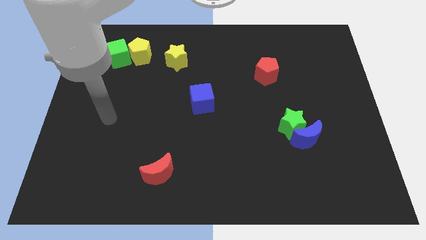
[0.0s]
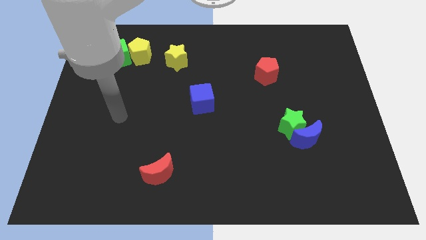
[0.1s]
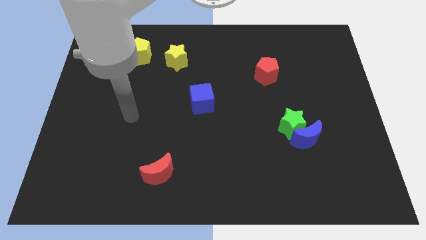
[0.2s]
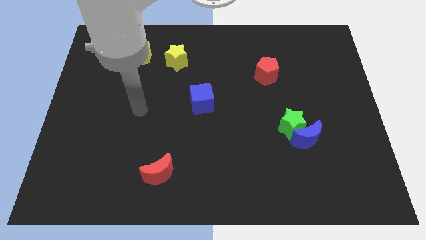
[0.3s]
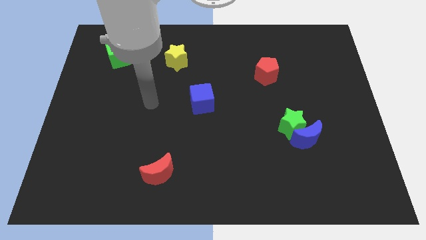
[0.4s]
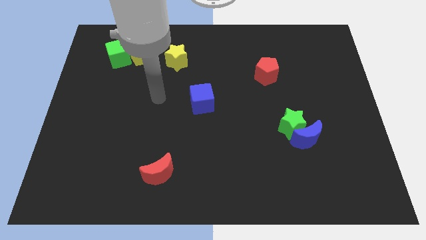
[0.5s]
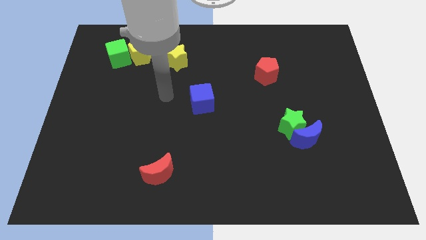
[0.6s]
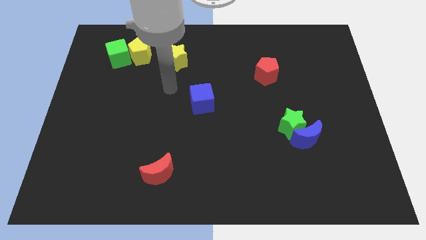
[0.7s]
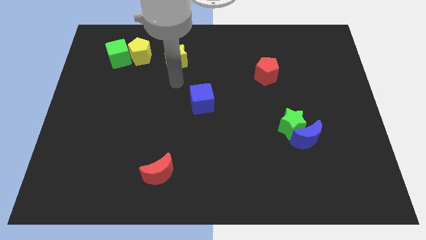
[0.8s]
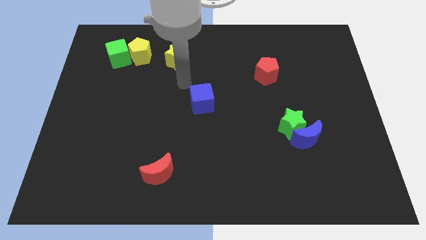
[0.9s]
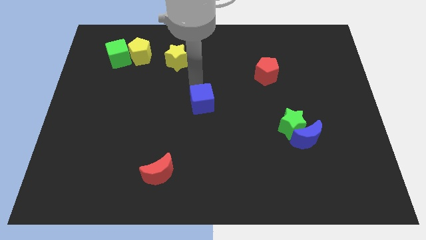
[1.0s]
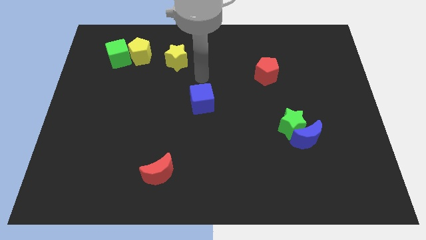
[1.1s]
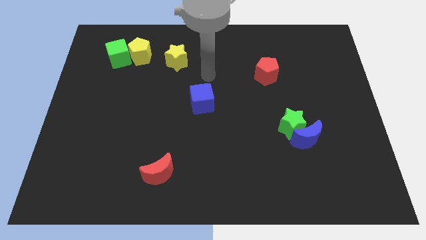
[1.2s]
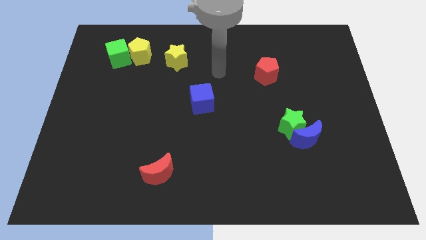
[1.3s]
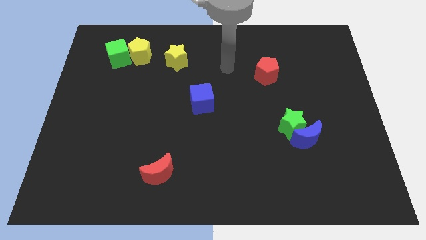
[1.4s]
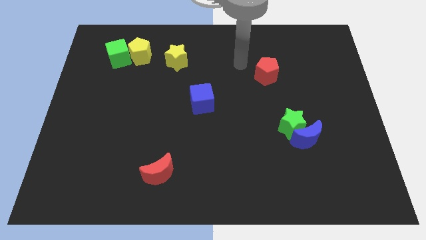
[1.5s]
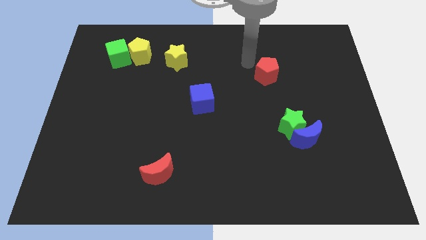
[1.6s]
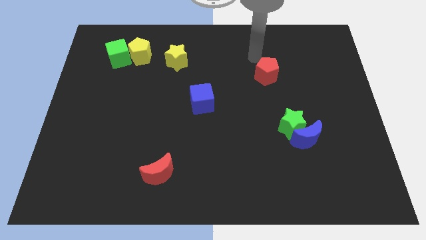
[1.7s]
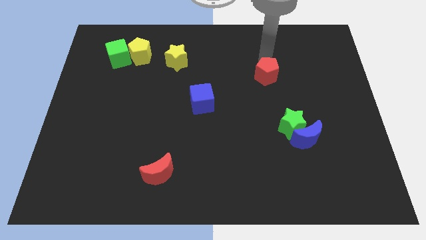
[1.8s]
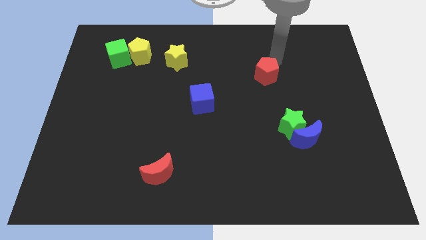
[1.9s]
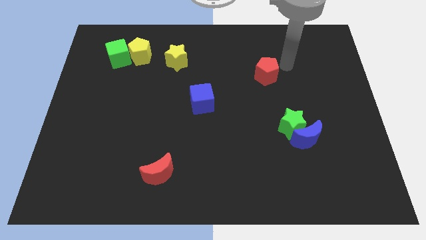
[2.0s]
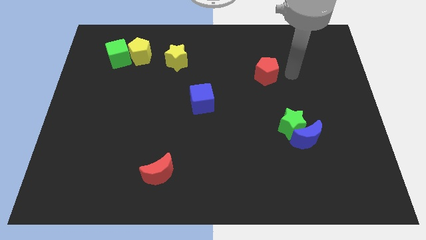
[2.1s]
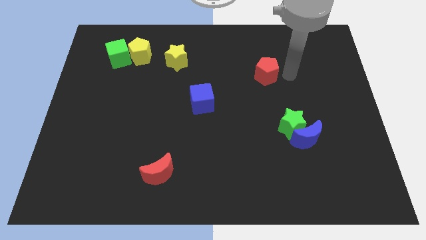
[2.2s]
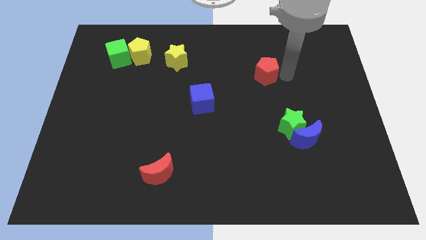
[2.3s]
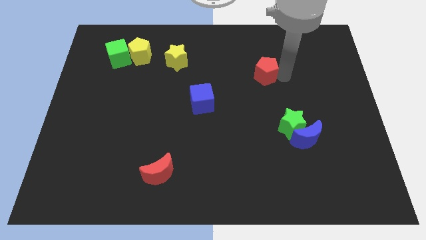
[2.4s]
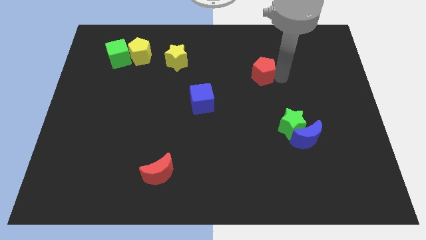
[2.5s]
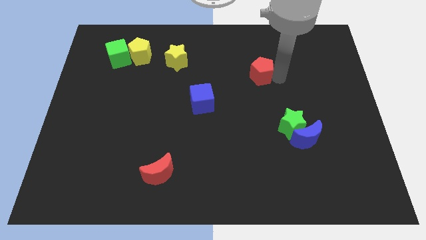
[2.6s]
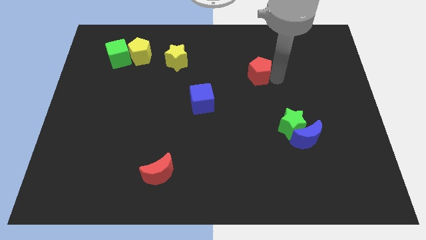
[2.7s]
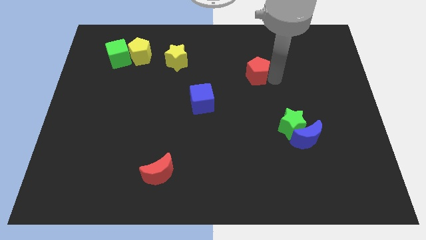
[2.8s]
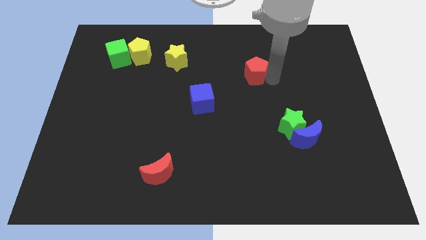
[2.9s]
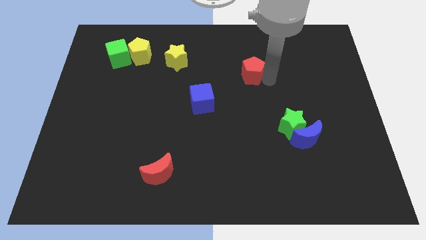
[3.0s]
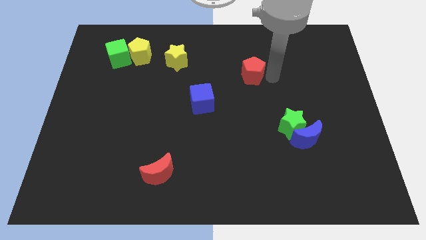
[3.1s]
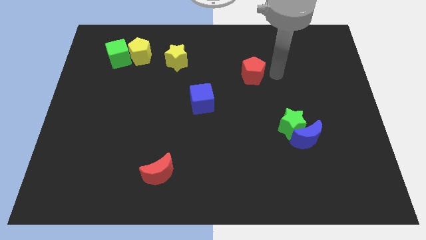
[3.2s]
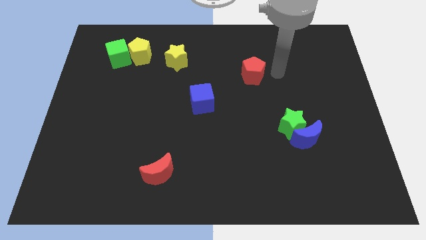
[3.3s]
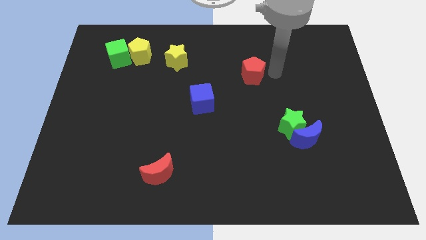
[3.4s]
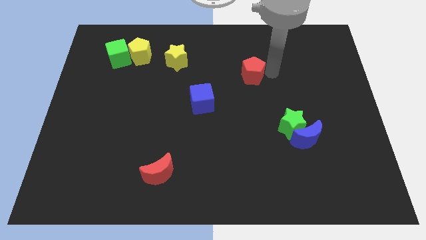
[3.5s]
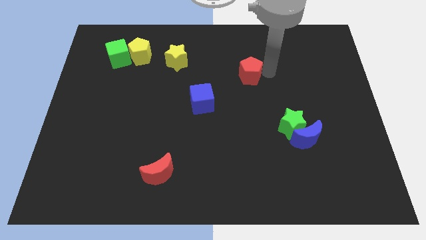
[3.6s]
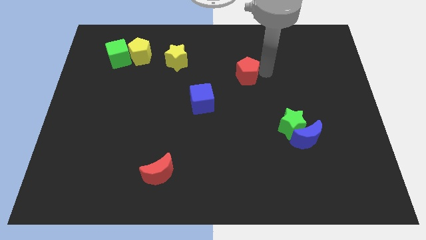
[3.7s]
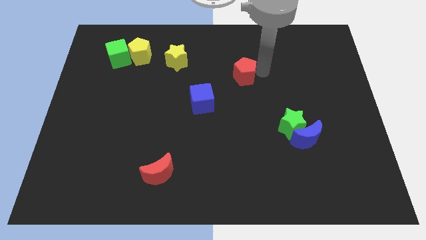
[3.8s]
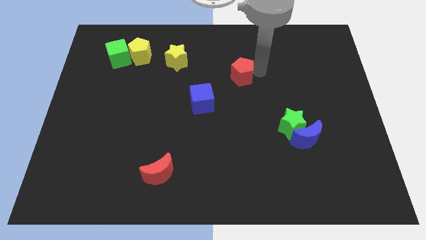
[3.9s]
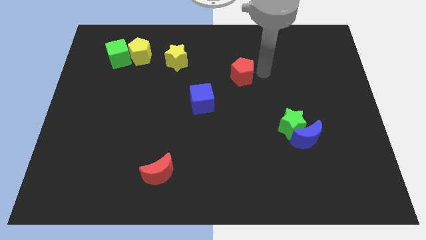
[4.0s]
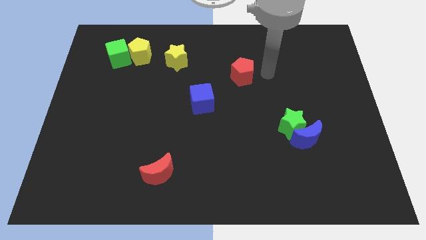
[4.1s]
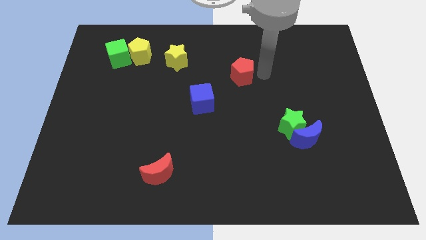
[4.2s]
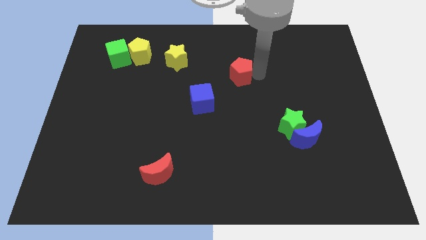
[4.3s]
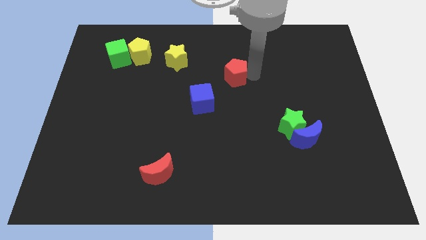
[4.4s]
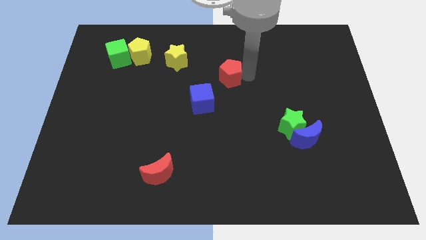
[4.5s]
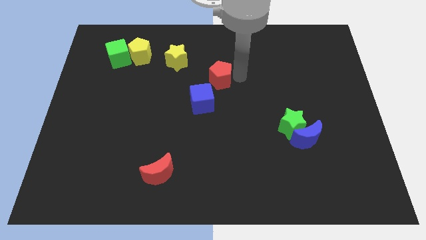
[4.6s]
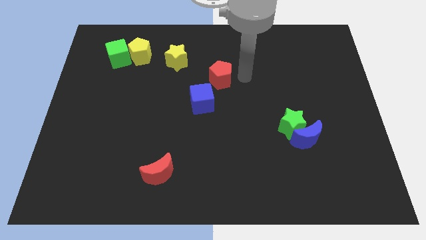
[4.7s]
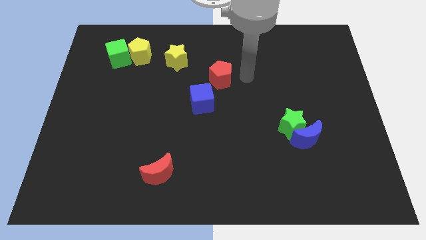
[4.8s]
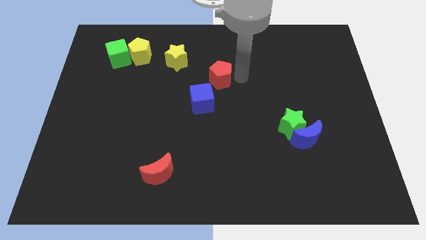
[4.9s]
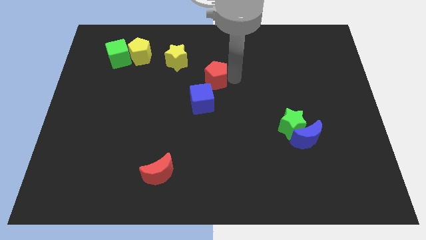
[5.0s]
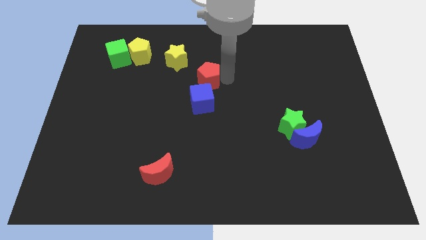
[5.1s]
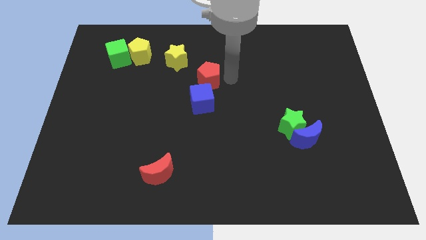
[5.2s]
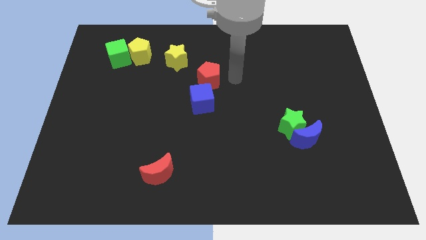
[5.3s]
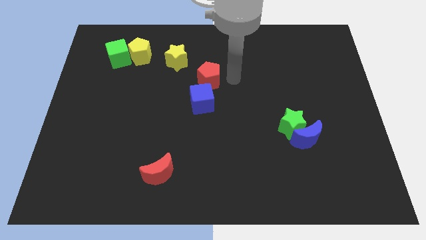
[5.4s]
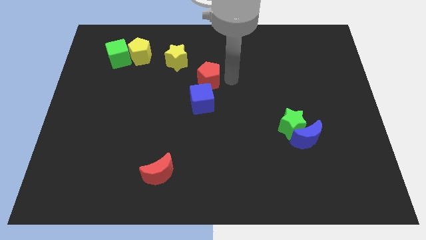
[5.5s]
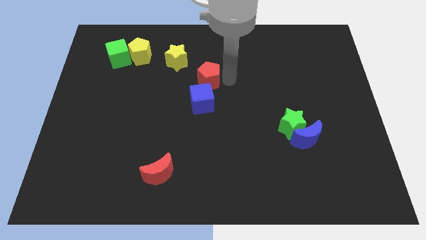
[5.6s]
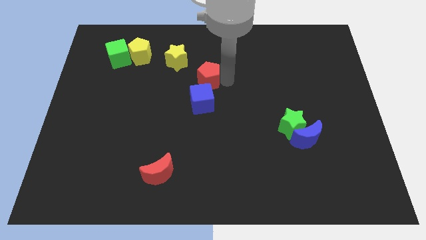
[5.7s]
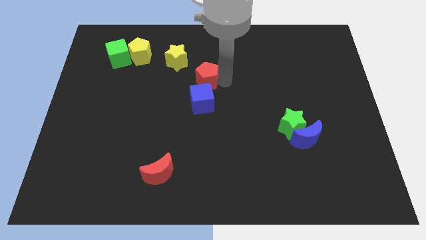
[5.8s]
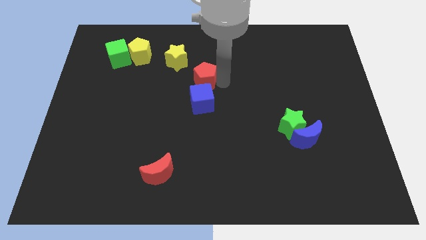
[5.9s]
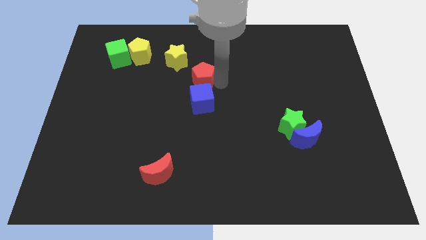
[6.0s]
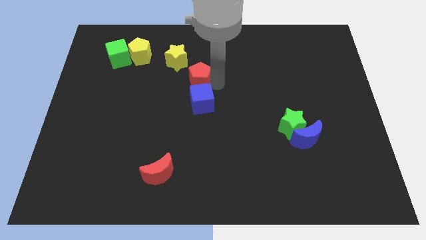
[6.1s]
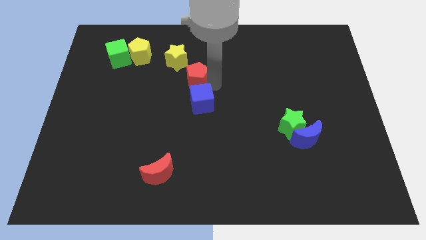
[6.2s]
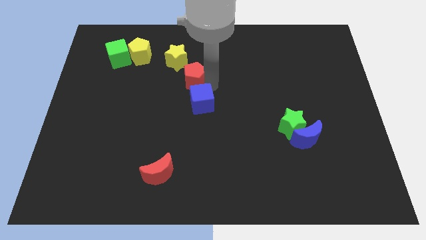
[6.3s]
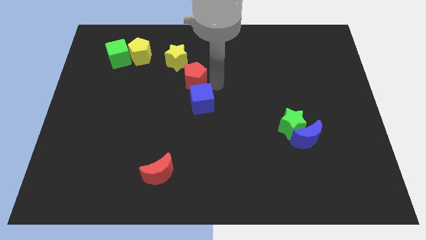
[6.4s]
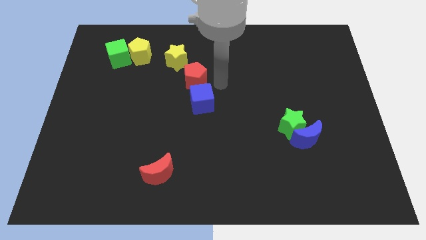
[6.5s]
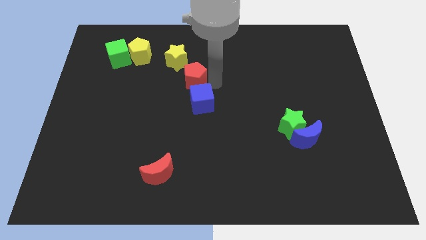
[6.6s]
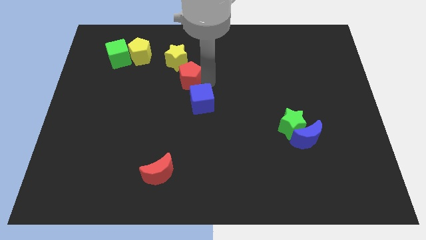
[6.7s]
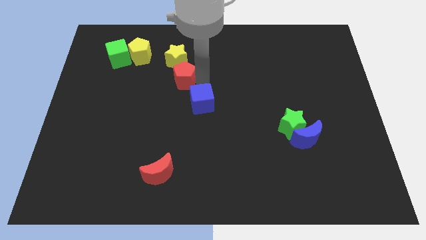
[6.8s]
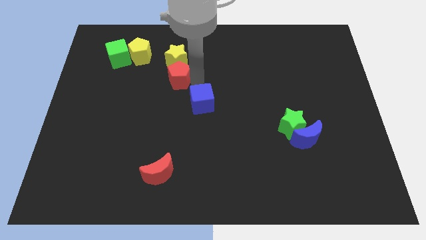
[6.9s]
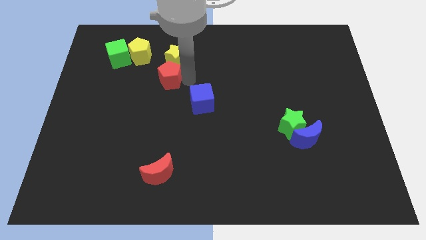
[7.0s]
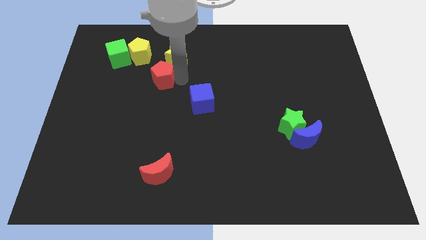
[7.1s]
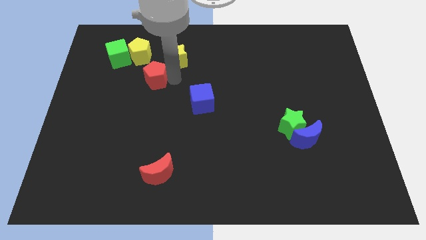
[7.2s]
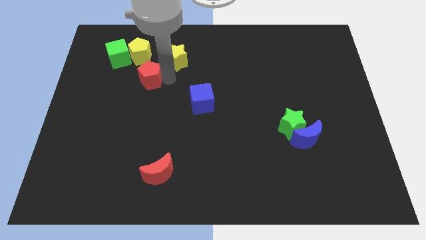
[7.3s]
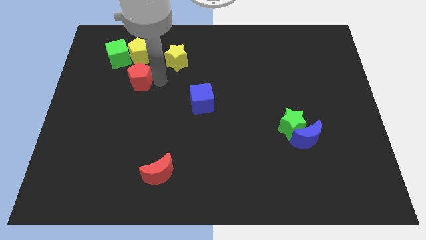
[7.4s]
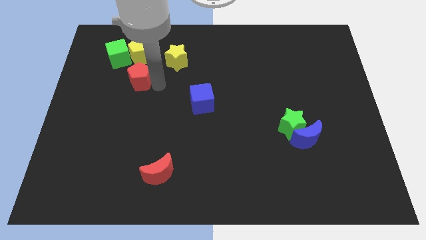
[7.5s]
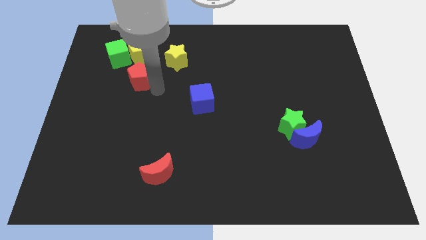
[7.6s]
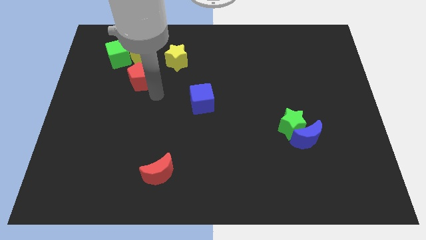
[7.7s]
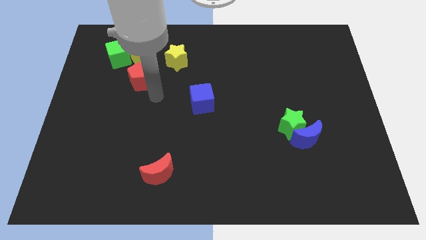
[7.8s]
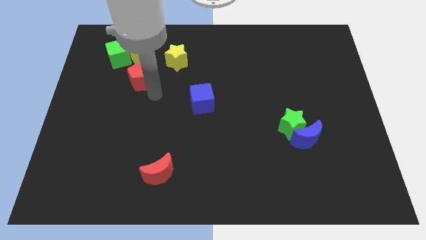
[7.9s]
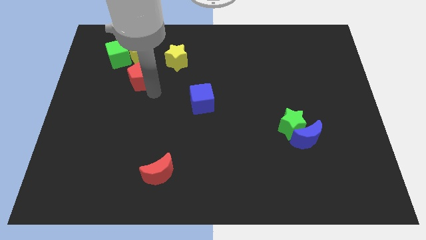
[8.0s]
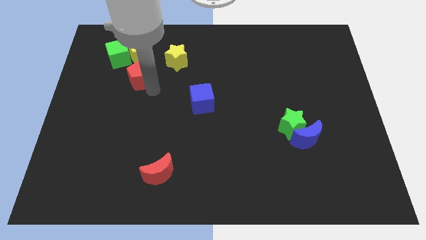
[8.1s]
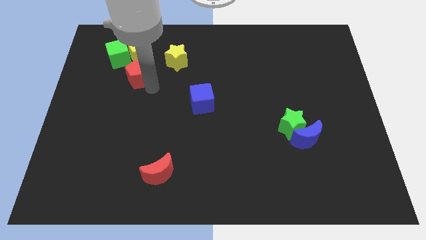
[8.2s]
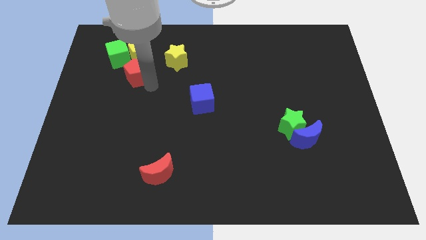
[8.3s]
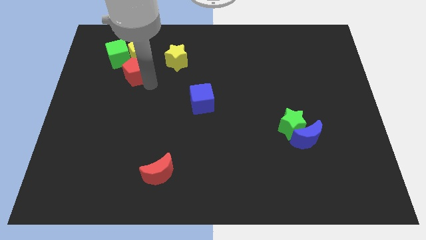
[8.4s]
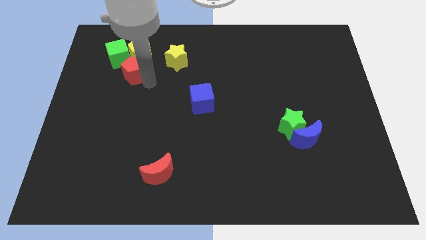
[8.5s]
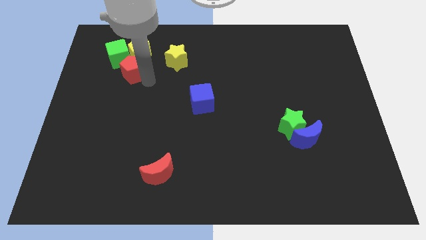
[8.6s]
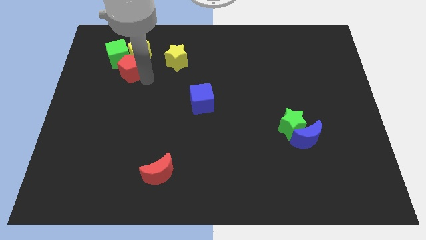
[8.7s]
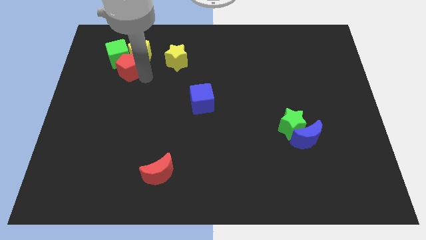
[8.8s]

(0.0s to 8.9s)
slide the red pentagon towards the green cube
